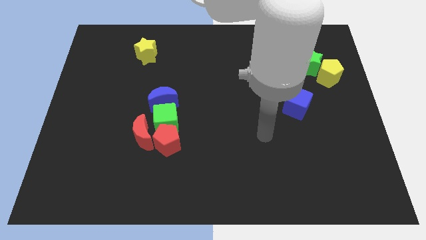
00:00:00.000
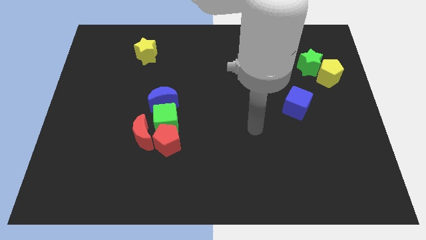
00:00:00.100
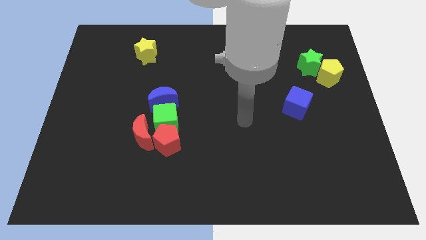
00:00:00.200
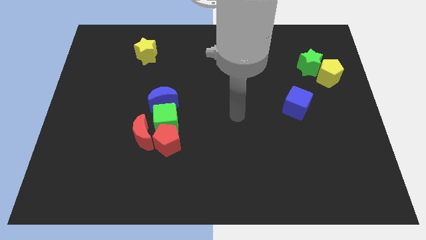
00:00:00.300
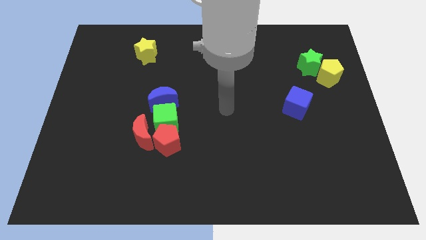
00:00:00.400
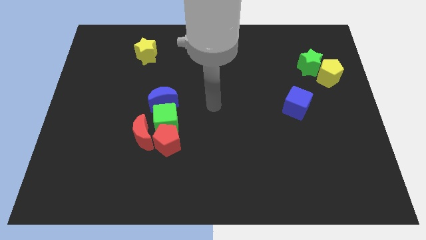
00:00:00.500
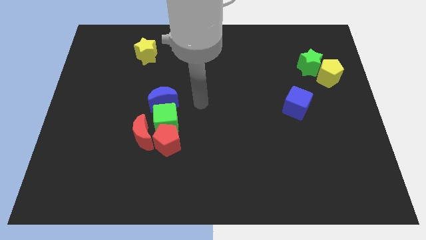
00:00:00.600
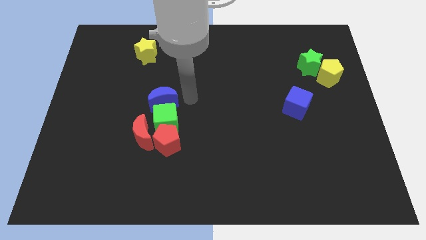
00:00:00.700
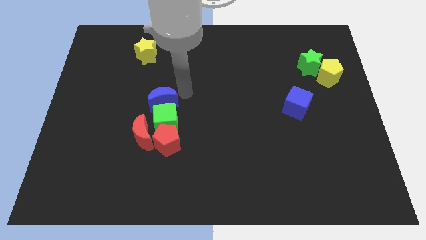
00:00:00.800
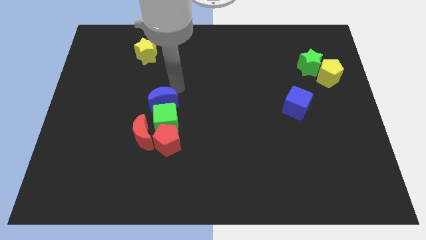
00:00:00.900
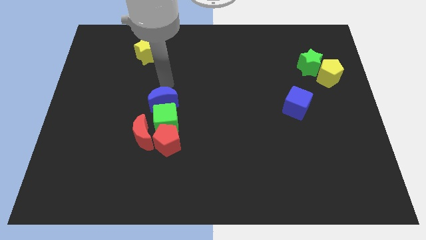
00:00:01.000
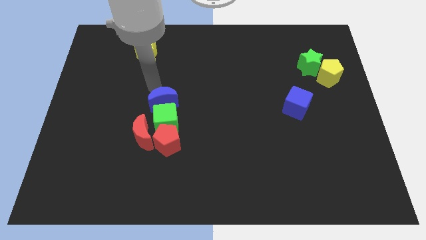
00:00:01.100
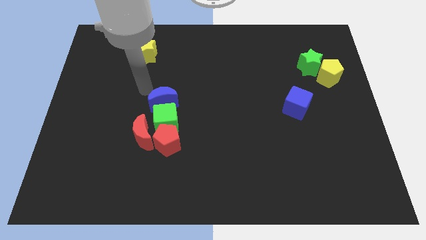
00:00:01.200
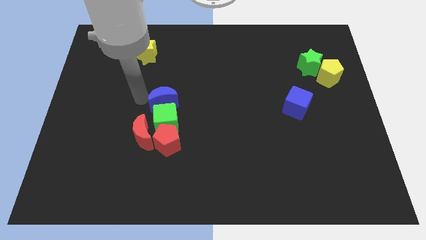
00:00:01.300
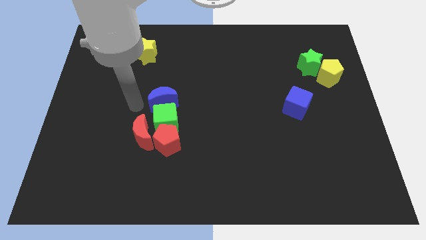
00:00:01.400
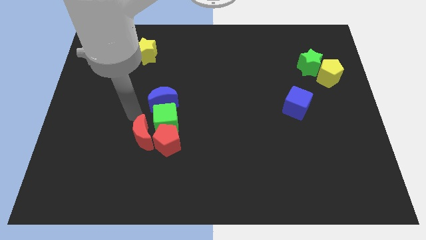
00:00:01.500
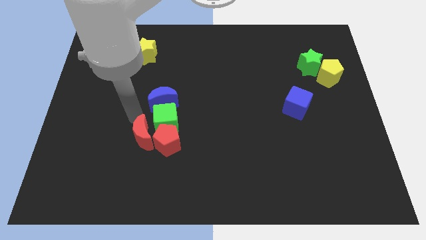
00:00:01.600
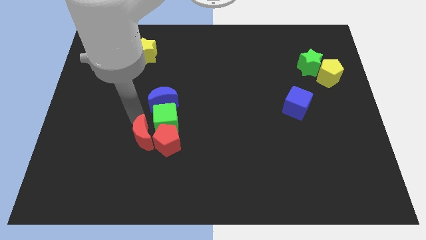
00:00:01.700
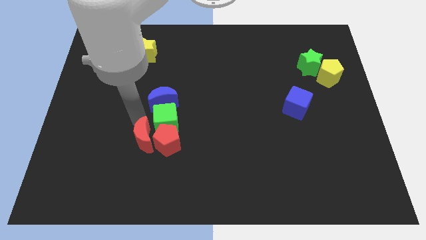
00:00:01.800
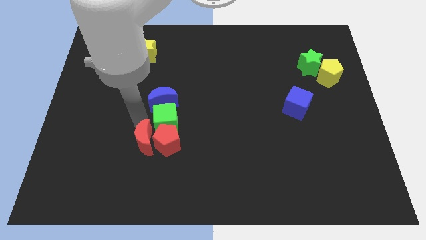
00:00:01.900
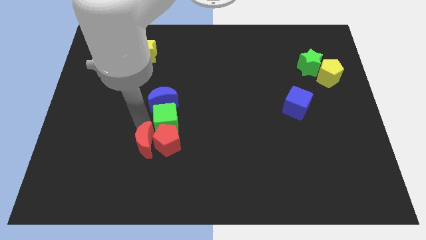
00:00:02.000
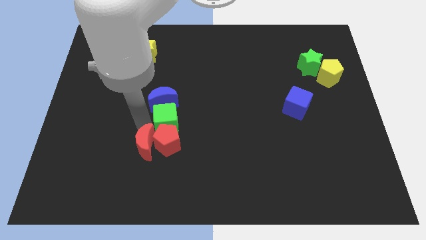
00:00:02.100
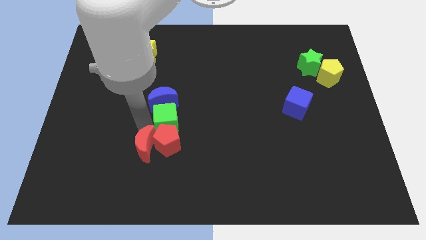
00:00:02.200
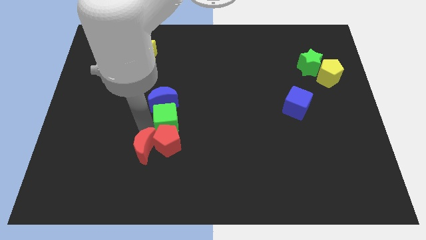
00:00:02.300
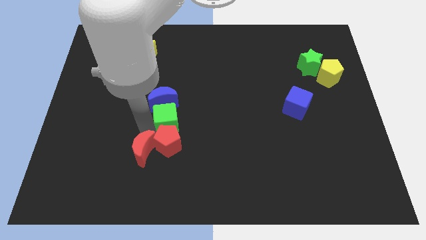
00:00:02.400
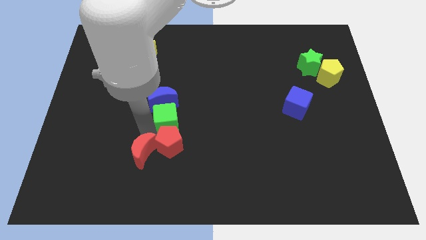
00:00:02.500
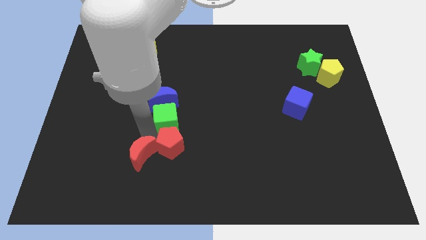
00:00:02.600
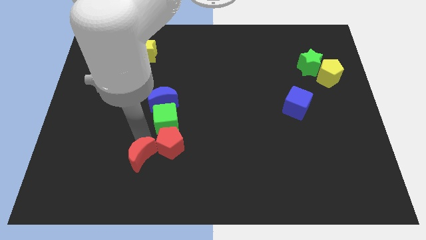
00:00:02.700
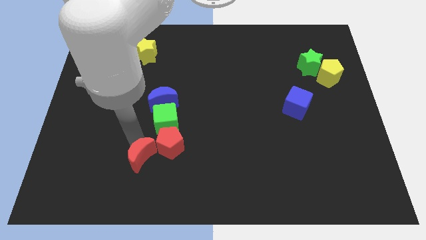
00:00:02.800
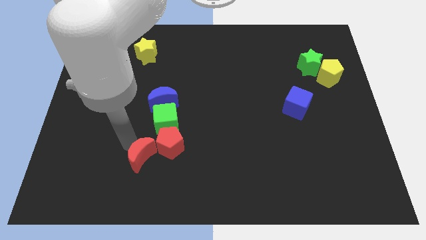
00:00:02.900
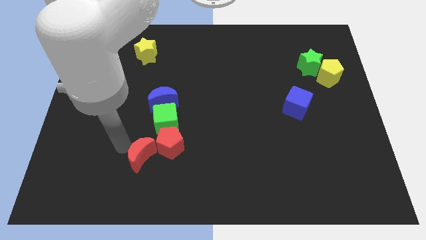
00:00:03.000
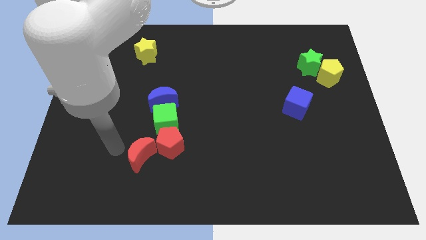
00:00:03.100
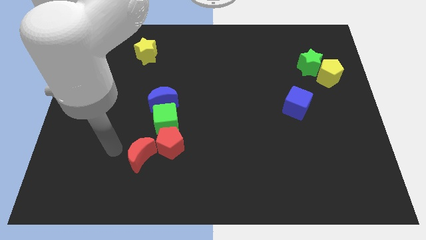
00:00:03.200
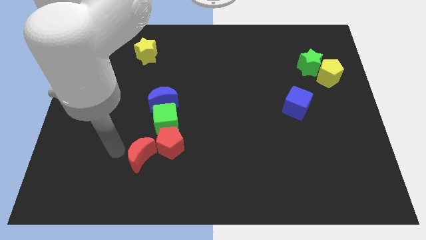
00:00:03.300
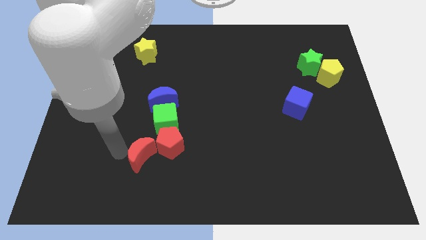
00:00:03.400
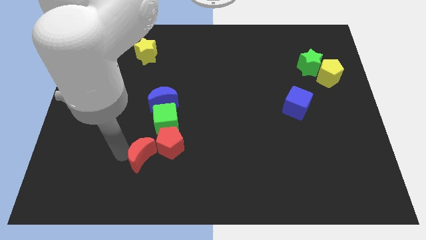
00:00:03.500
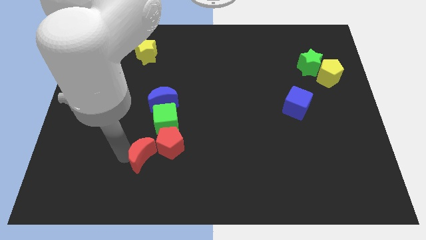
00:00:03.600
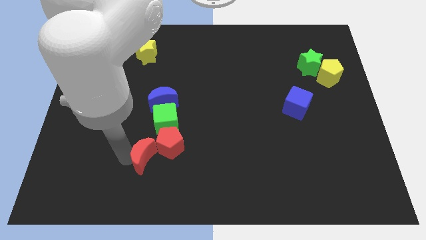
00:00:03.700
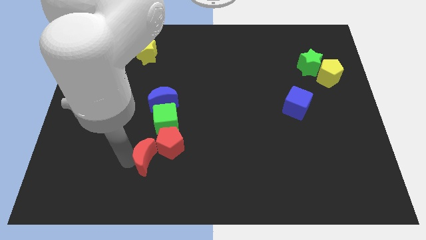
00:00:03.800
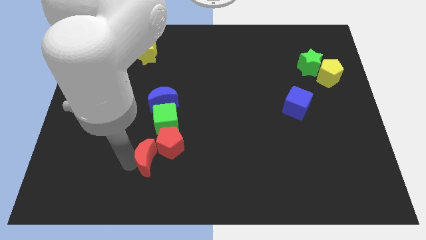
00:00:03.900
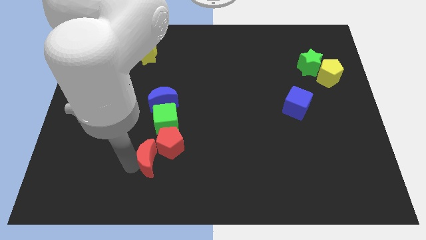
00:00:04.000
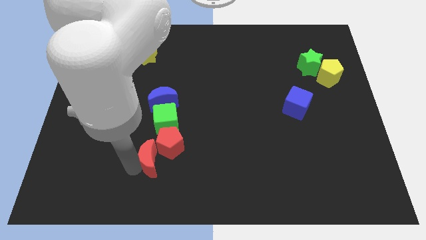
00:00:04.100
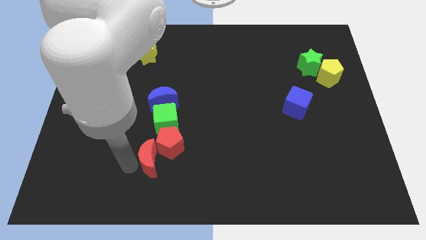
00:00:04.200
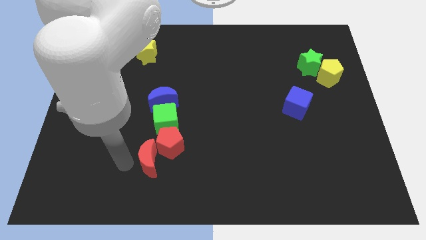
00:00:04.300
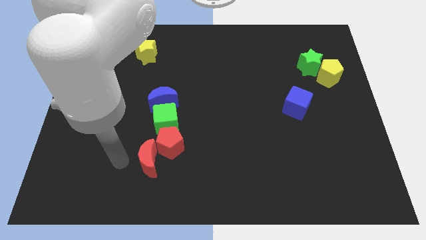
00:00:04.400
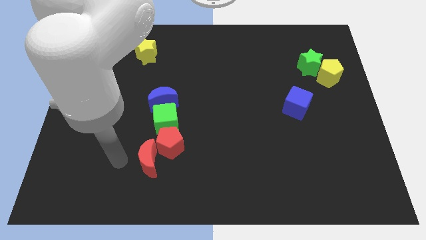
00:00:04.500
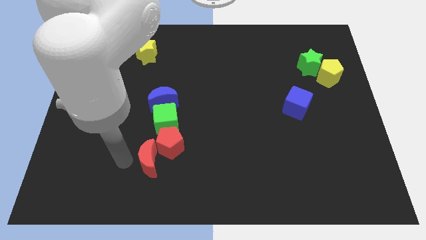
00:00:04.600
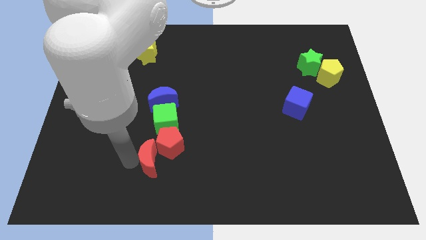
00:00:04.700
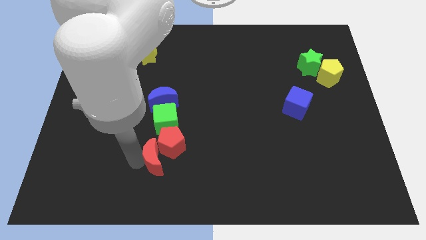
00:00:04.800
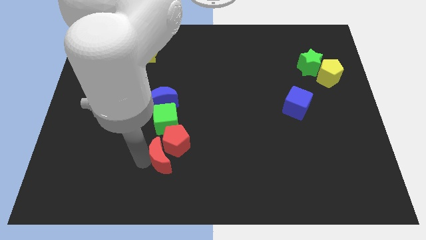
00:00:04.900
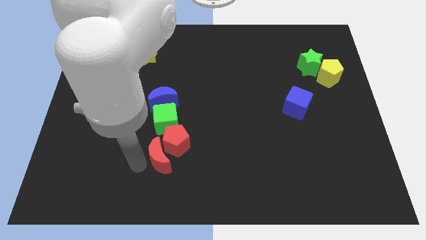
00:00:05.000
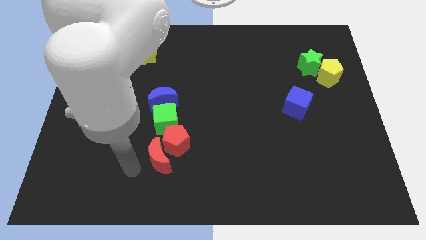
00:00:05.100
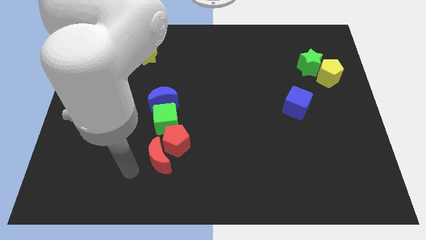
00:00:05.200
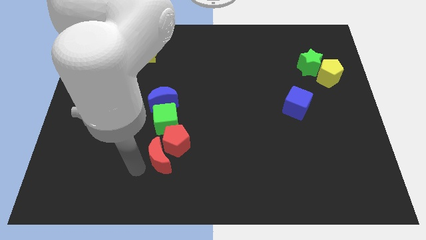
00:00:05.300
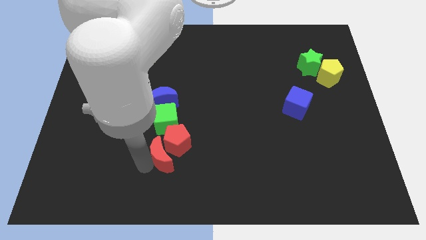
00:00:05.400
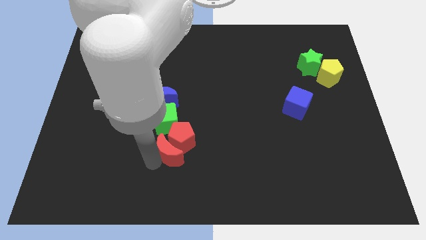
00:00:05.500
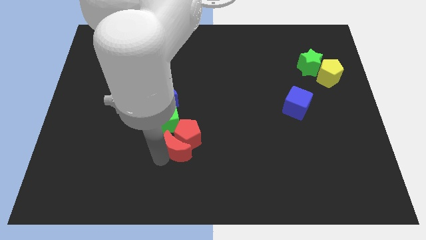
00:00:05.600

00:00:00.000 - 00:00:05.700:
move the red moon somewhat to the right

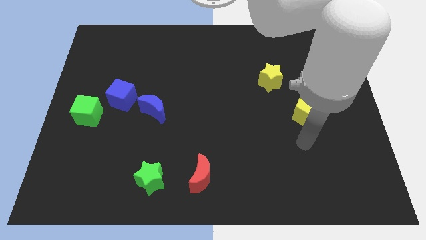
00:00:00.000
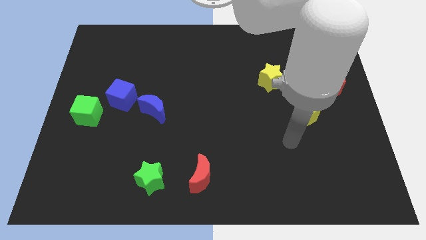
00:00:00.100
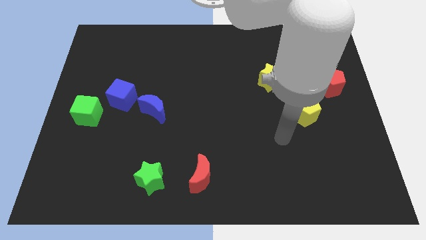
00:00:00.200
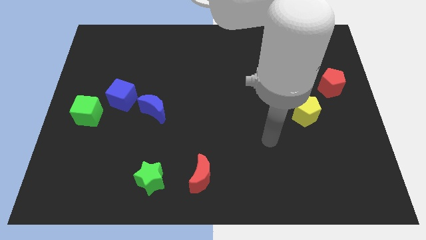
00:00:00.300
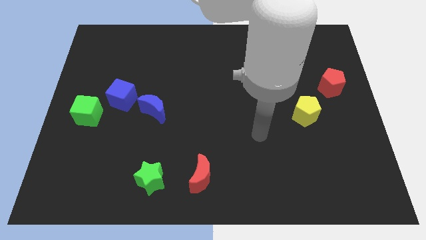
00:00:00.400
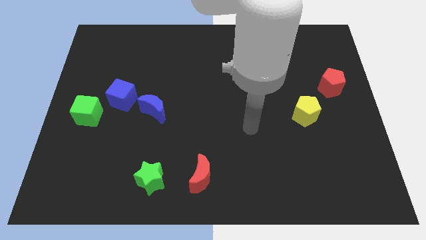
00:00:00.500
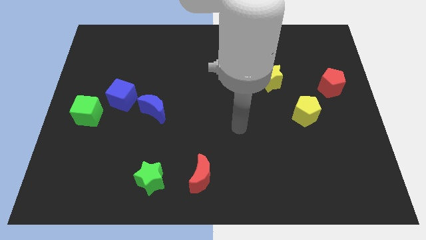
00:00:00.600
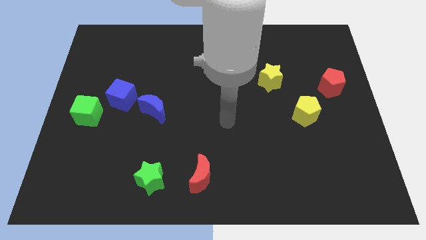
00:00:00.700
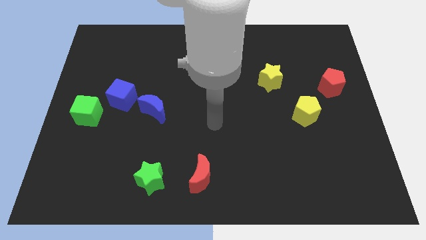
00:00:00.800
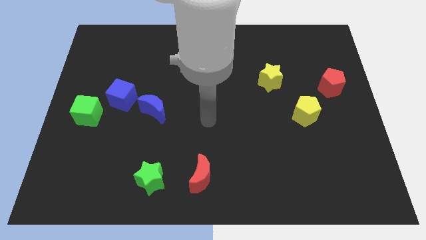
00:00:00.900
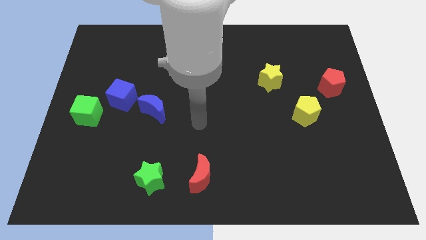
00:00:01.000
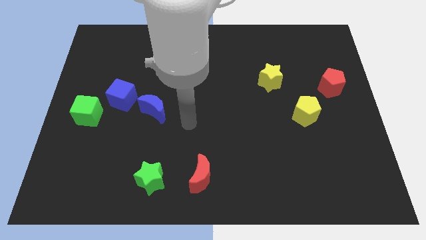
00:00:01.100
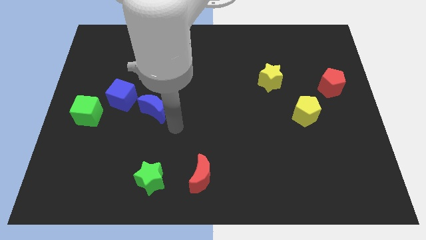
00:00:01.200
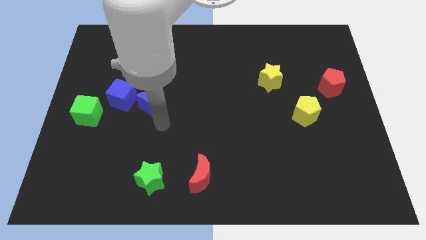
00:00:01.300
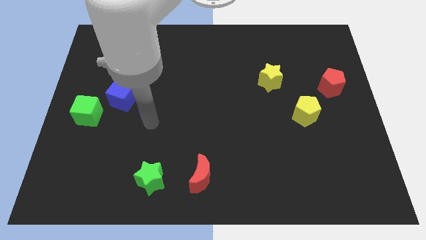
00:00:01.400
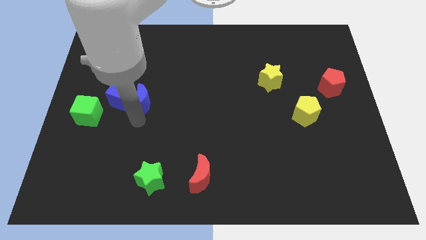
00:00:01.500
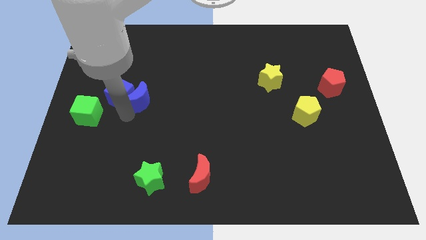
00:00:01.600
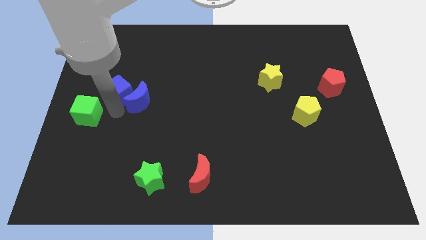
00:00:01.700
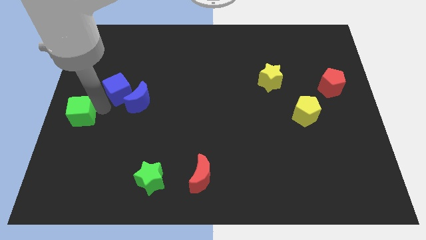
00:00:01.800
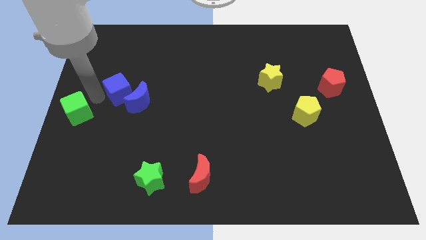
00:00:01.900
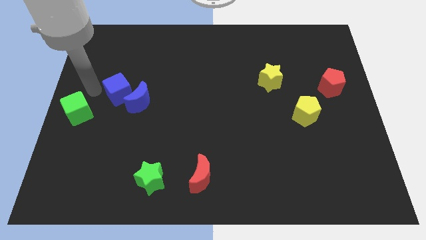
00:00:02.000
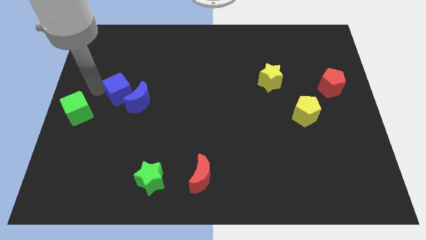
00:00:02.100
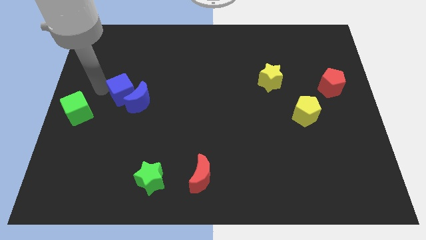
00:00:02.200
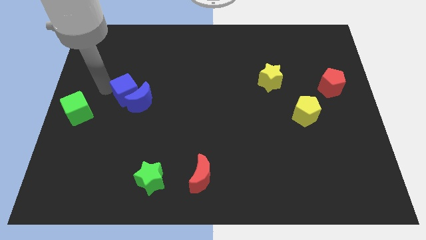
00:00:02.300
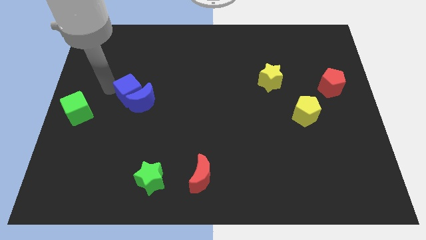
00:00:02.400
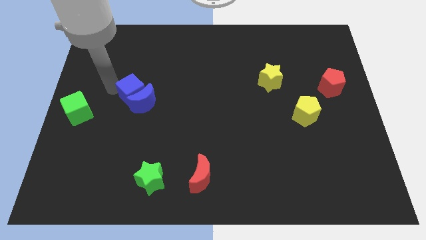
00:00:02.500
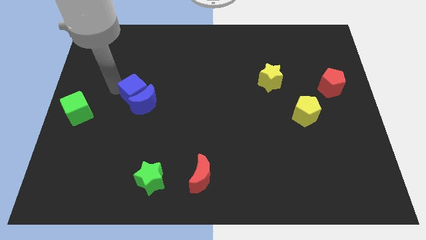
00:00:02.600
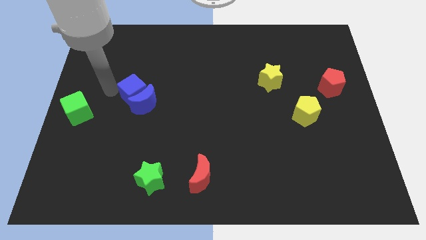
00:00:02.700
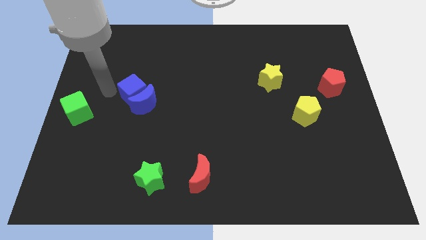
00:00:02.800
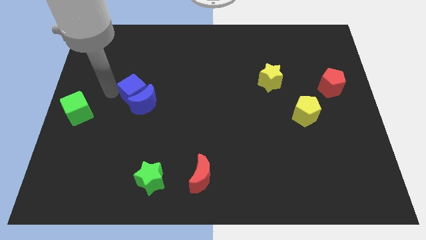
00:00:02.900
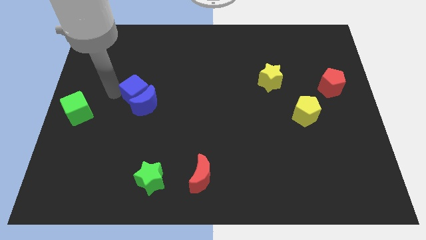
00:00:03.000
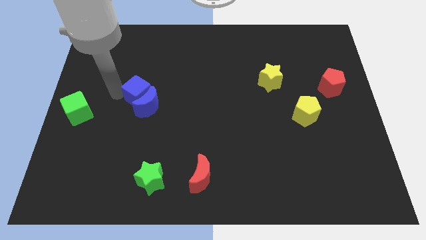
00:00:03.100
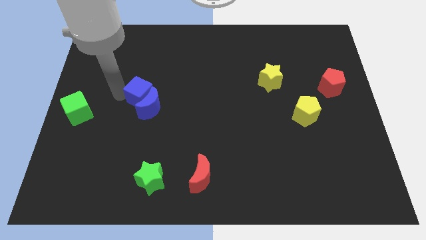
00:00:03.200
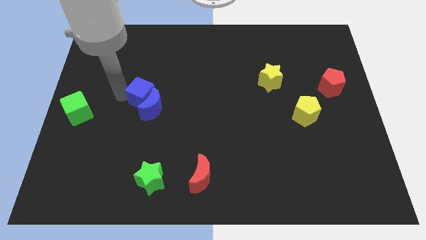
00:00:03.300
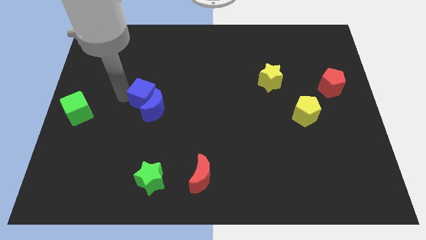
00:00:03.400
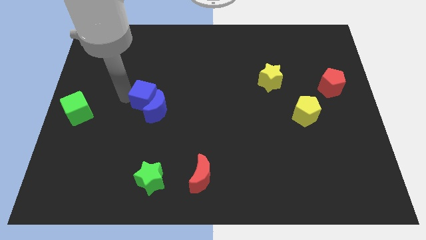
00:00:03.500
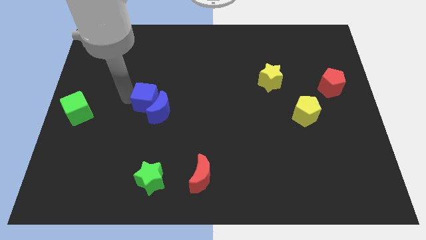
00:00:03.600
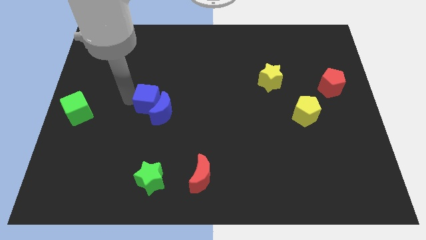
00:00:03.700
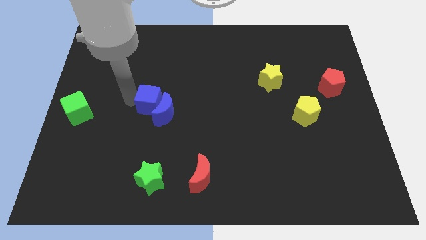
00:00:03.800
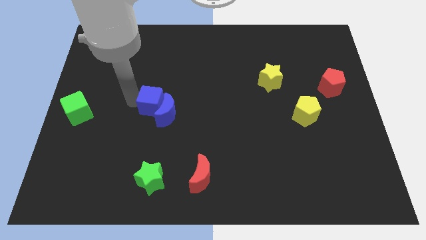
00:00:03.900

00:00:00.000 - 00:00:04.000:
slightly slide the blue cube to the right
